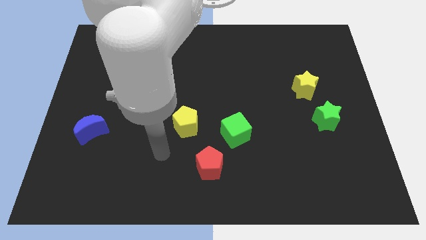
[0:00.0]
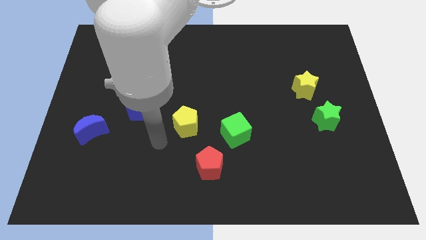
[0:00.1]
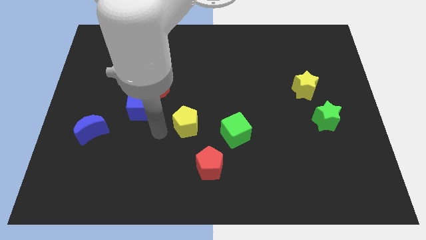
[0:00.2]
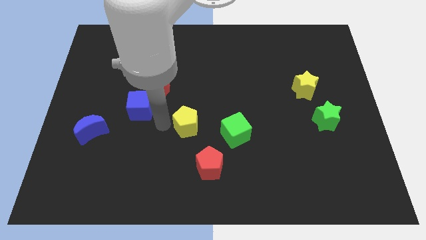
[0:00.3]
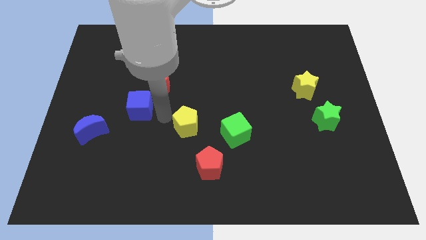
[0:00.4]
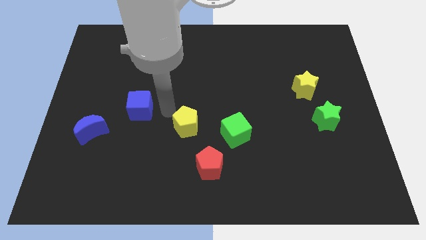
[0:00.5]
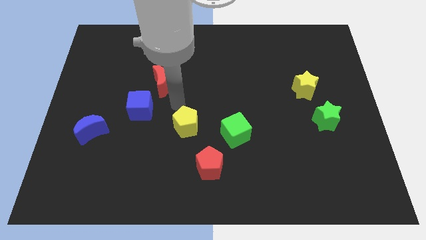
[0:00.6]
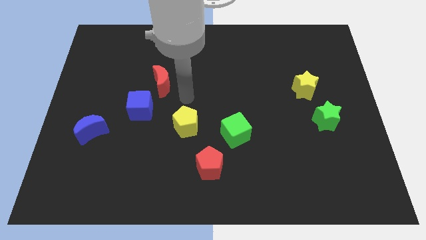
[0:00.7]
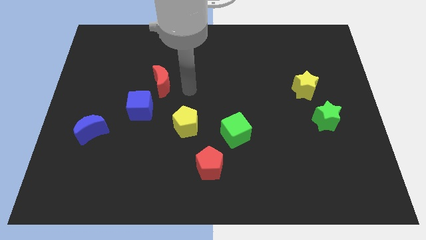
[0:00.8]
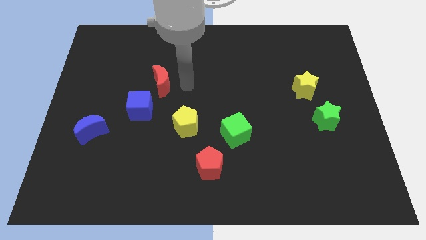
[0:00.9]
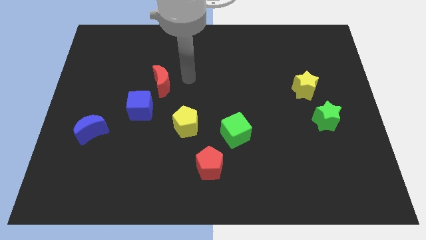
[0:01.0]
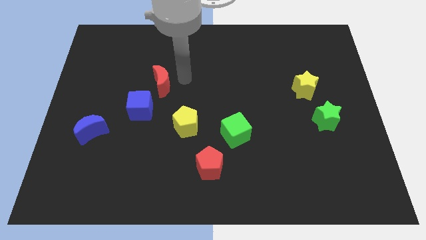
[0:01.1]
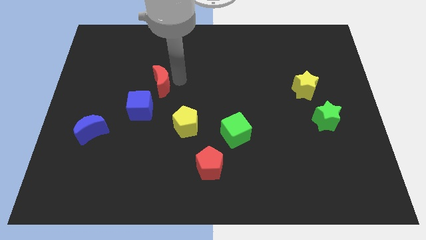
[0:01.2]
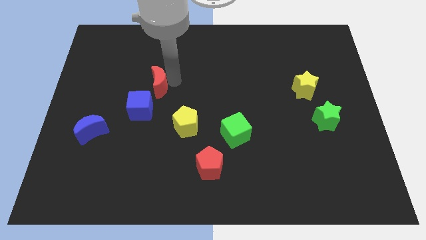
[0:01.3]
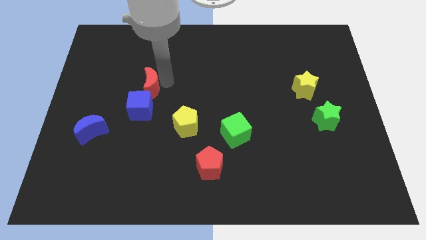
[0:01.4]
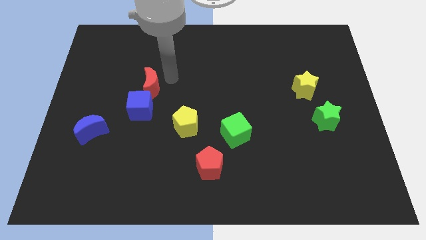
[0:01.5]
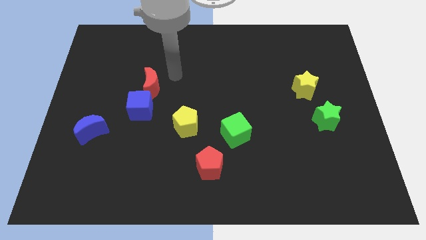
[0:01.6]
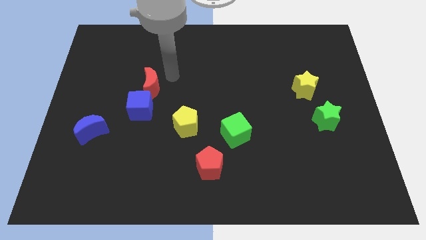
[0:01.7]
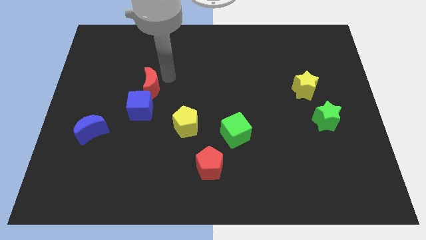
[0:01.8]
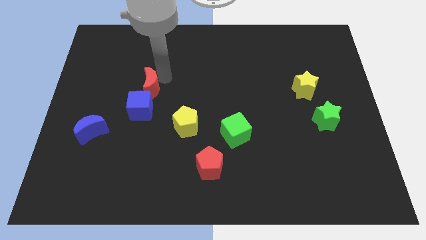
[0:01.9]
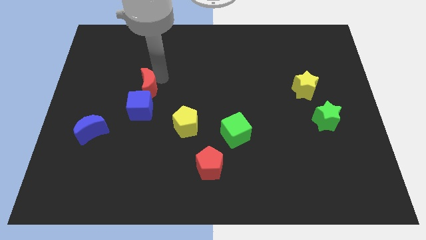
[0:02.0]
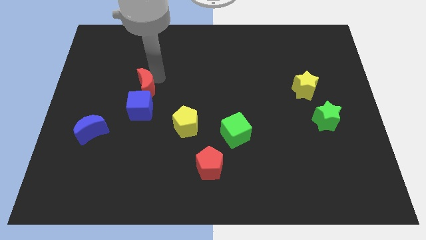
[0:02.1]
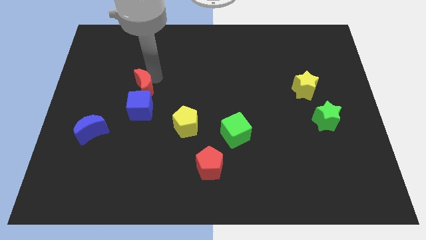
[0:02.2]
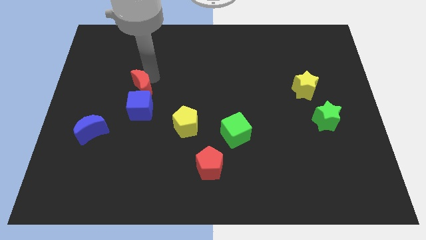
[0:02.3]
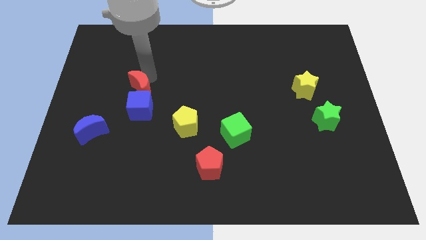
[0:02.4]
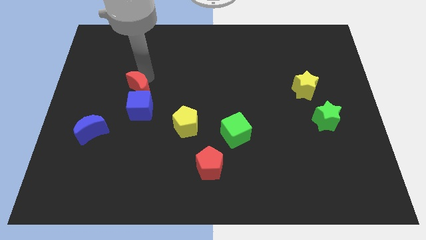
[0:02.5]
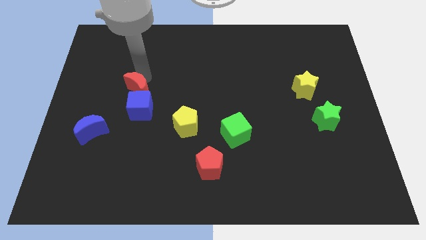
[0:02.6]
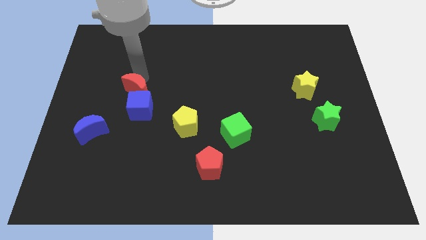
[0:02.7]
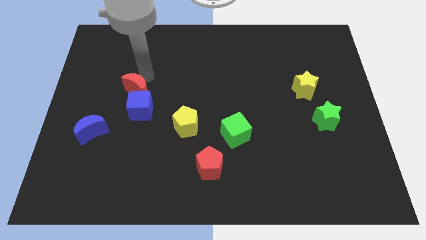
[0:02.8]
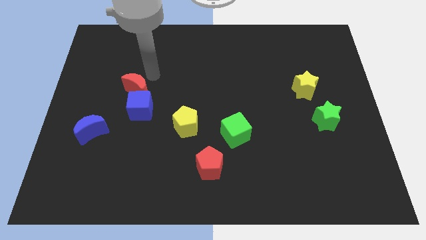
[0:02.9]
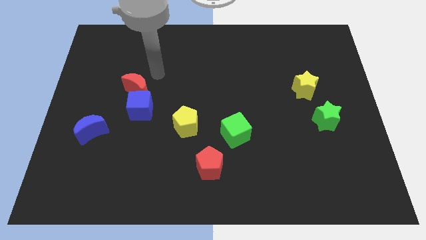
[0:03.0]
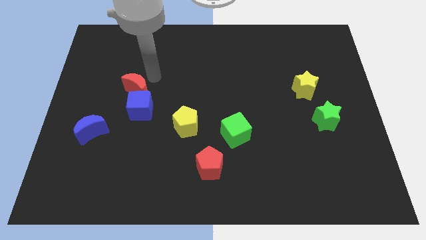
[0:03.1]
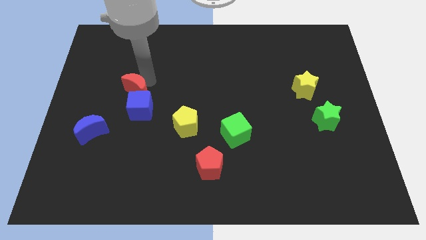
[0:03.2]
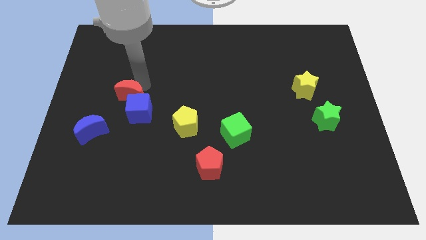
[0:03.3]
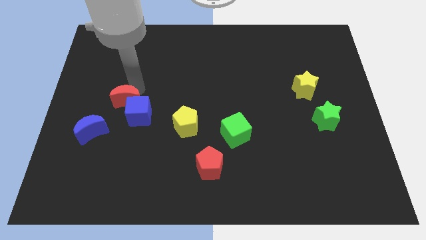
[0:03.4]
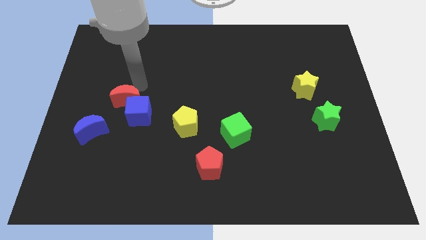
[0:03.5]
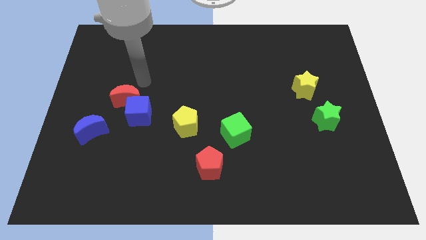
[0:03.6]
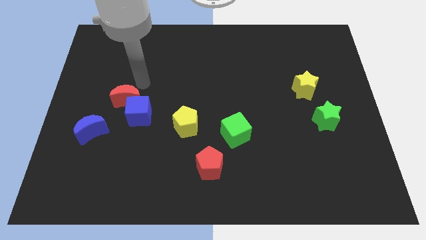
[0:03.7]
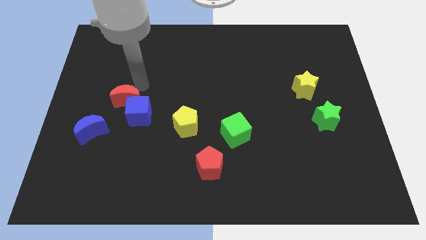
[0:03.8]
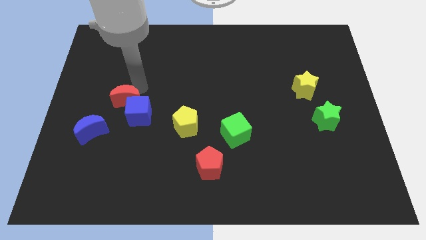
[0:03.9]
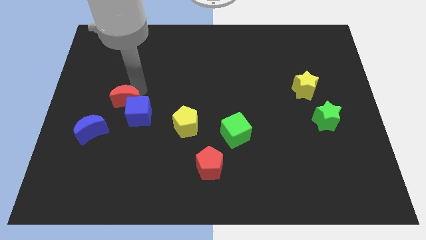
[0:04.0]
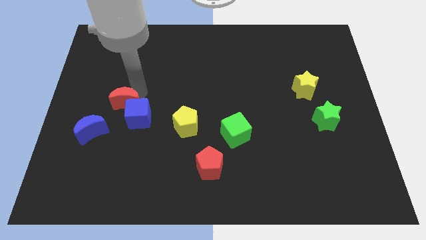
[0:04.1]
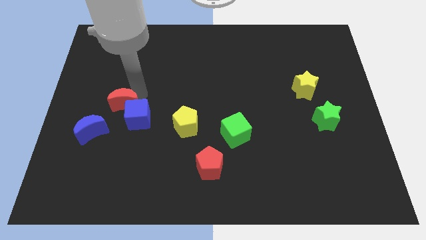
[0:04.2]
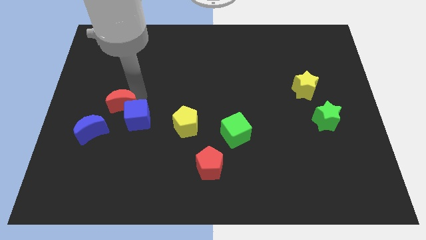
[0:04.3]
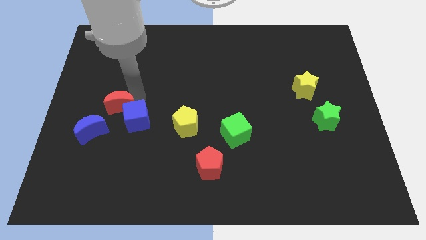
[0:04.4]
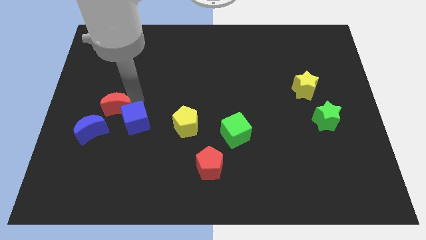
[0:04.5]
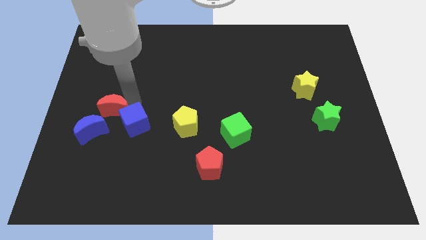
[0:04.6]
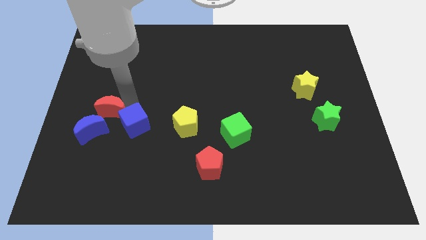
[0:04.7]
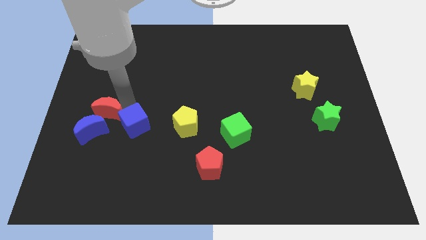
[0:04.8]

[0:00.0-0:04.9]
slide the red moon towards the blue moon

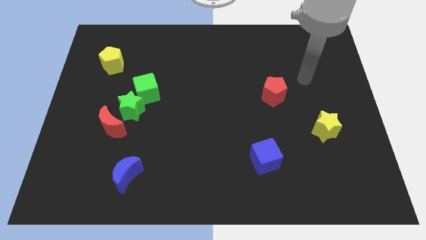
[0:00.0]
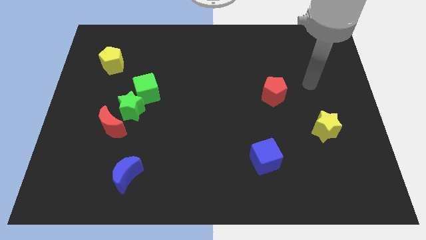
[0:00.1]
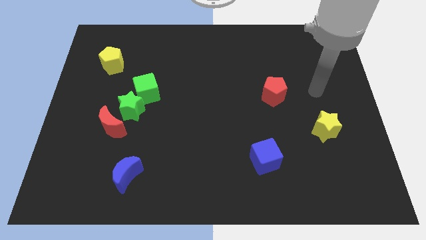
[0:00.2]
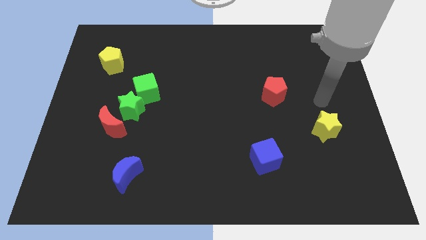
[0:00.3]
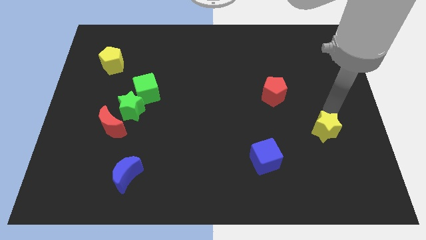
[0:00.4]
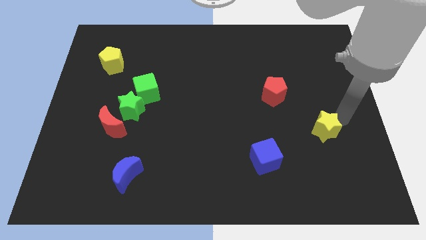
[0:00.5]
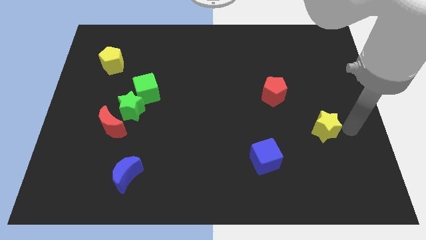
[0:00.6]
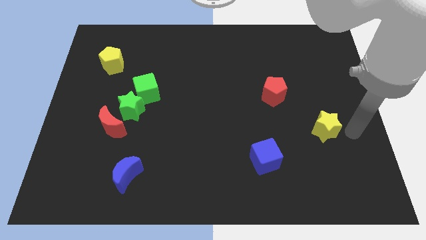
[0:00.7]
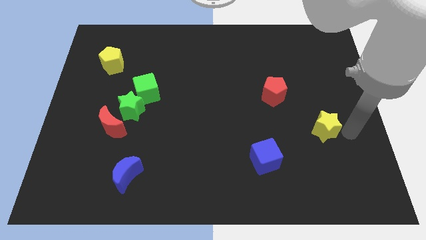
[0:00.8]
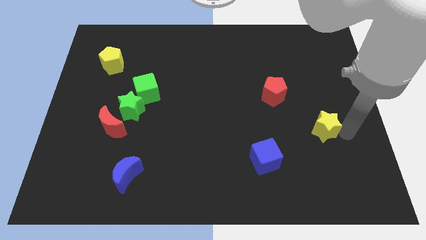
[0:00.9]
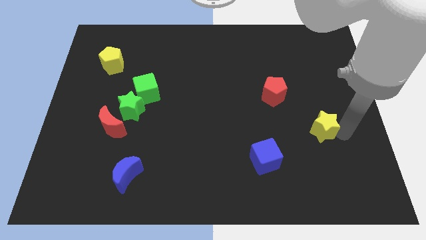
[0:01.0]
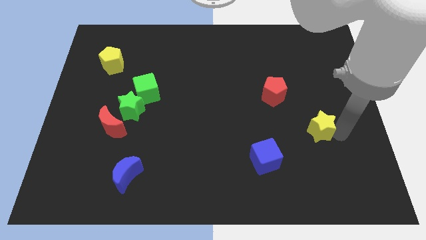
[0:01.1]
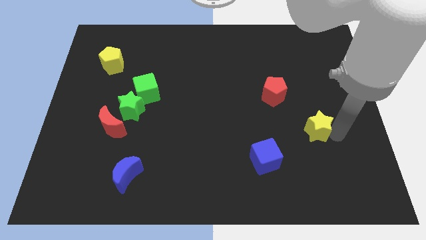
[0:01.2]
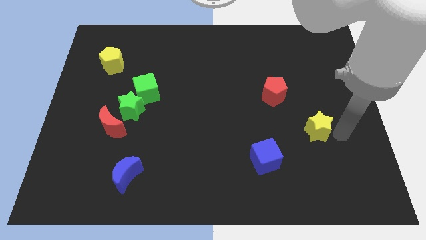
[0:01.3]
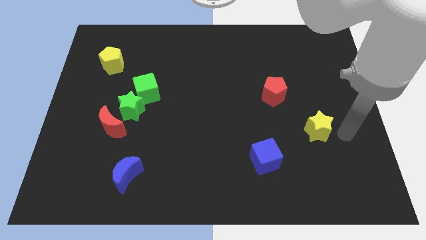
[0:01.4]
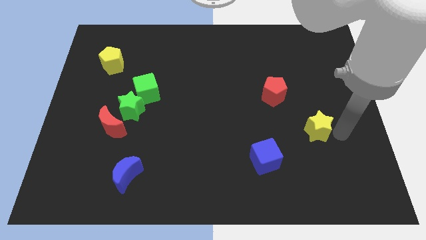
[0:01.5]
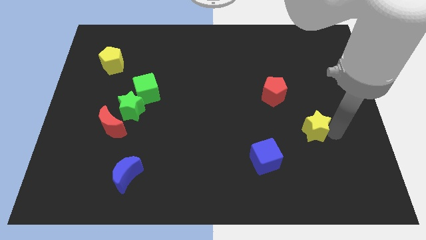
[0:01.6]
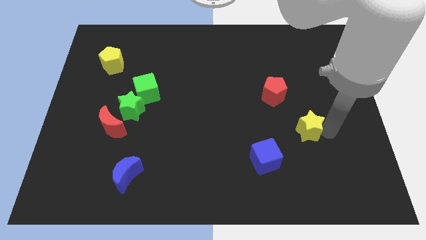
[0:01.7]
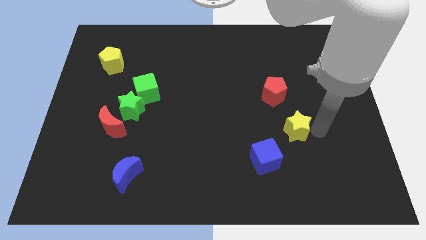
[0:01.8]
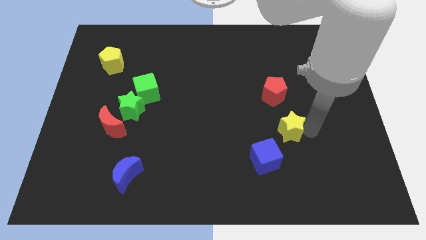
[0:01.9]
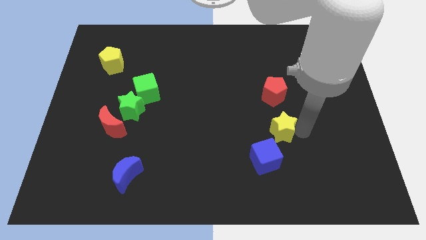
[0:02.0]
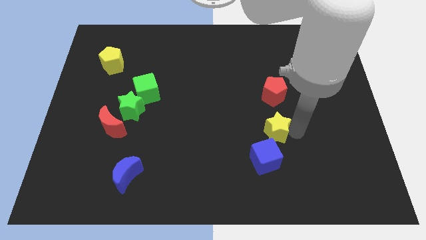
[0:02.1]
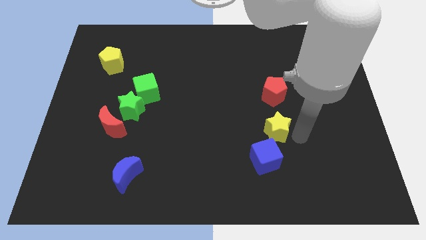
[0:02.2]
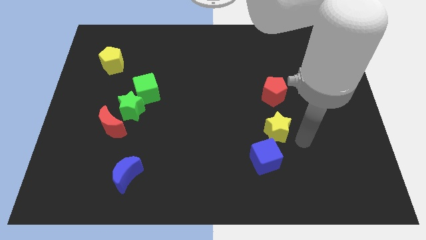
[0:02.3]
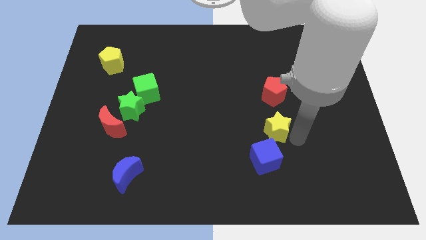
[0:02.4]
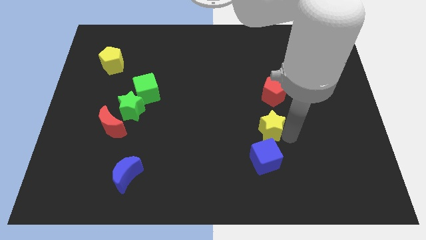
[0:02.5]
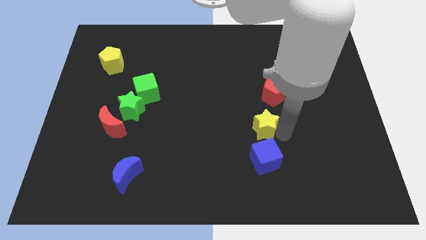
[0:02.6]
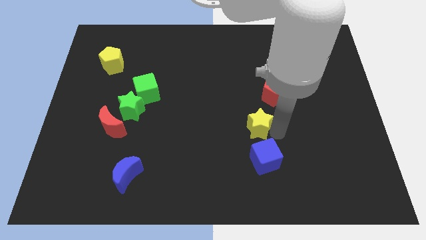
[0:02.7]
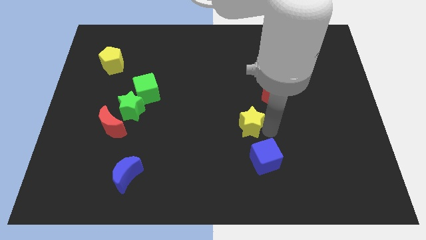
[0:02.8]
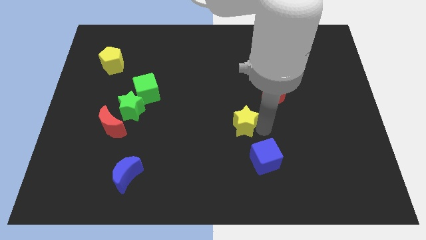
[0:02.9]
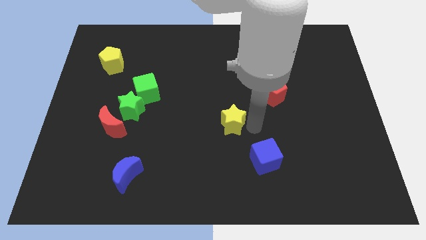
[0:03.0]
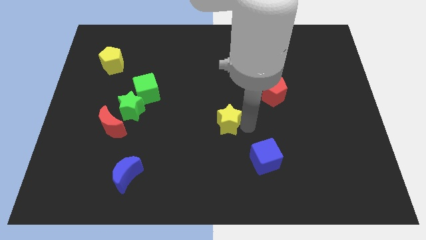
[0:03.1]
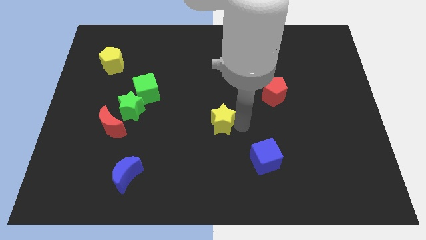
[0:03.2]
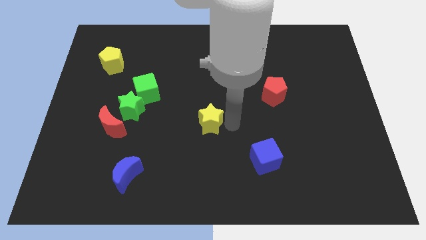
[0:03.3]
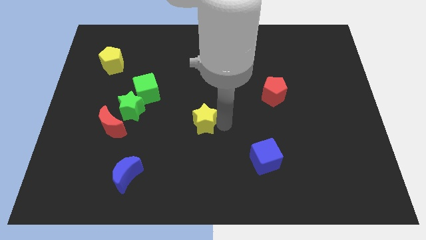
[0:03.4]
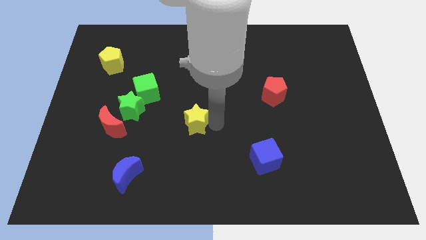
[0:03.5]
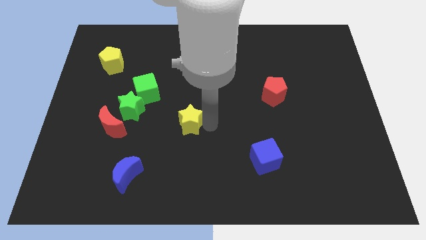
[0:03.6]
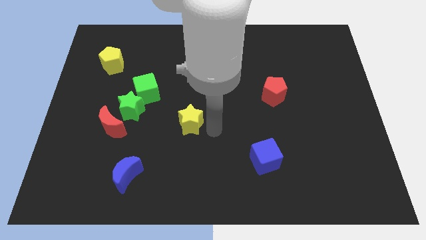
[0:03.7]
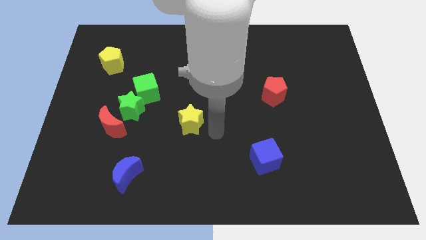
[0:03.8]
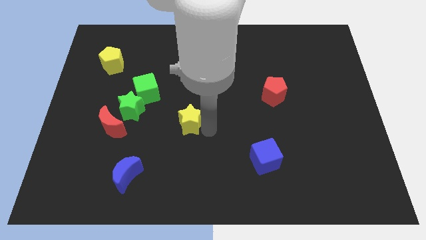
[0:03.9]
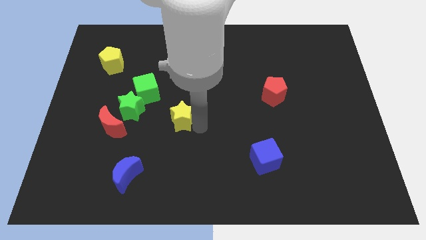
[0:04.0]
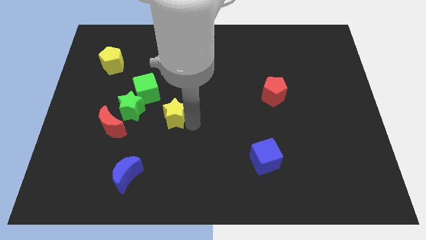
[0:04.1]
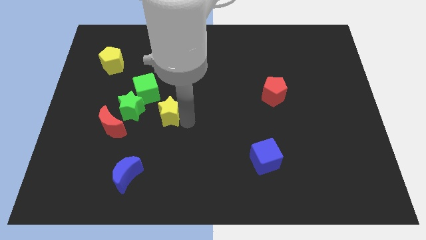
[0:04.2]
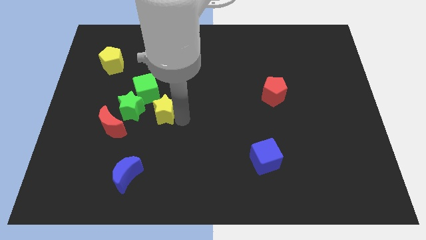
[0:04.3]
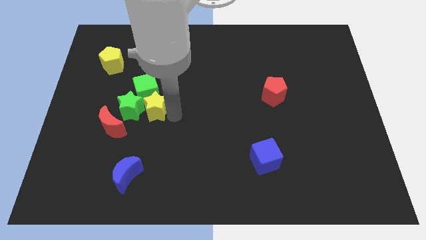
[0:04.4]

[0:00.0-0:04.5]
put the yellow star towards the green star
